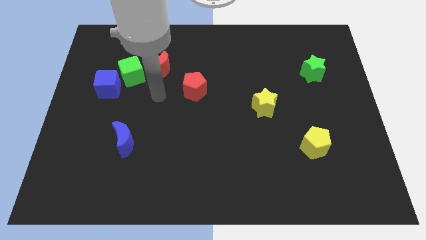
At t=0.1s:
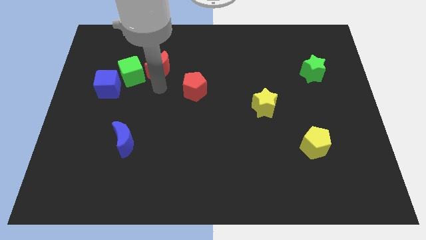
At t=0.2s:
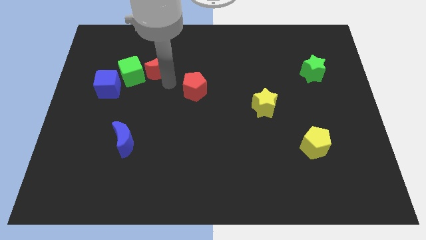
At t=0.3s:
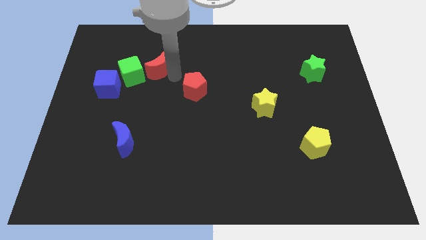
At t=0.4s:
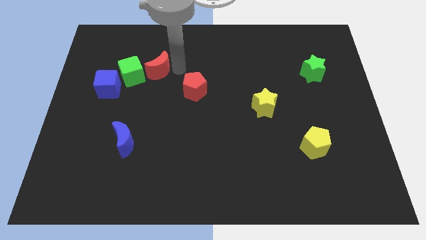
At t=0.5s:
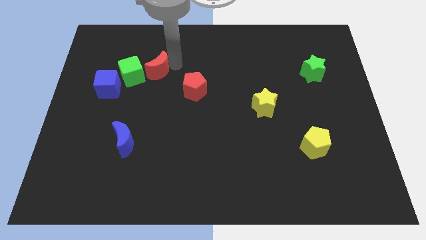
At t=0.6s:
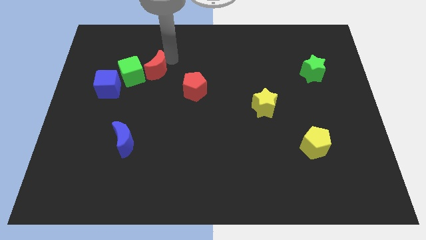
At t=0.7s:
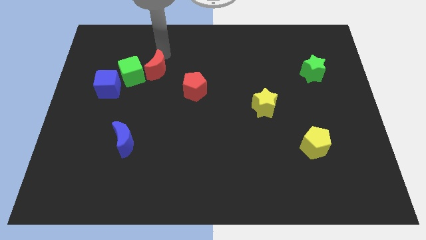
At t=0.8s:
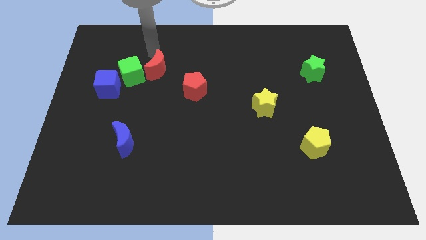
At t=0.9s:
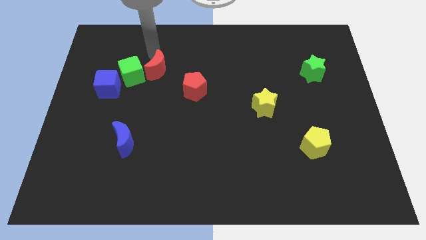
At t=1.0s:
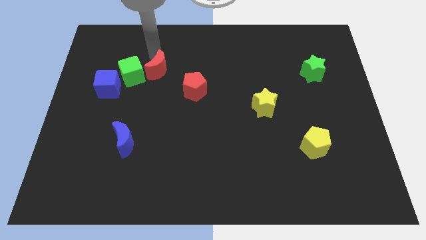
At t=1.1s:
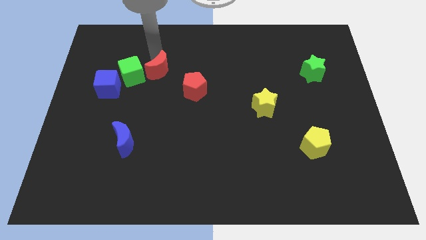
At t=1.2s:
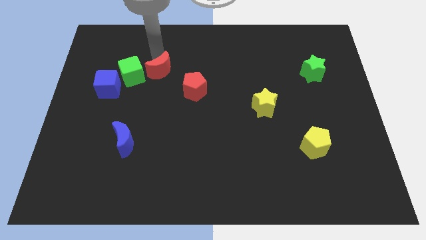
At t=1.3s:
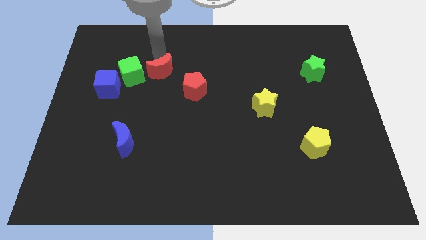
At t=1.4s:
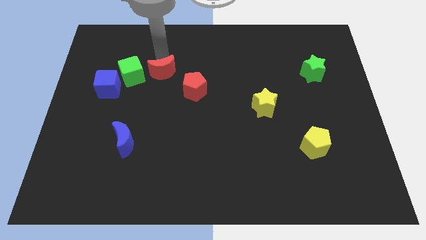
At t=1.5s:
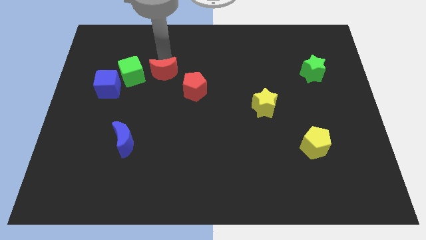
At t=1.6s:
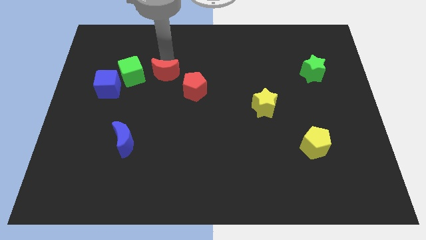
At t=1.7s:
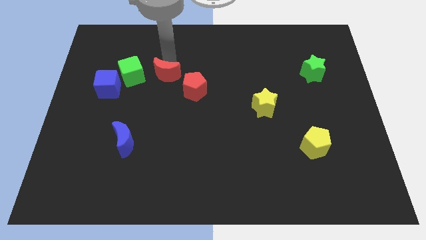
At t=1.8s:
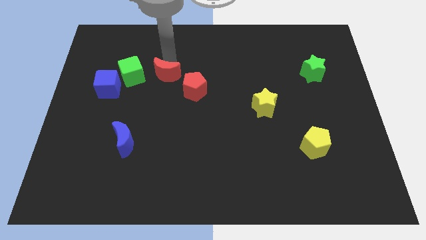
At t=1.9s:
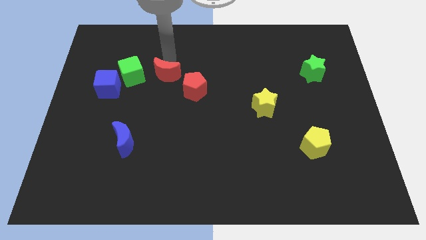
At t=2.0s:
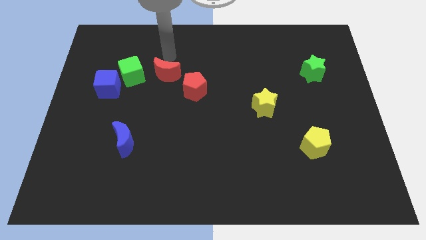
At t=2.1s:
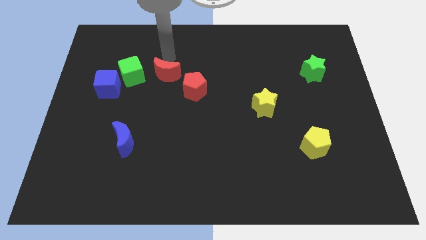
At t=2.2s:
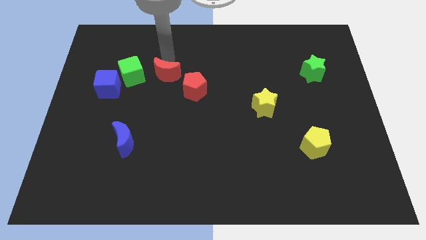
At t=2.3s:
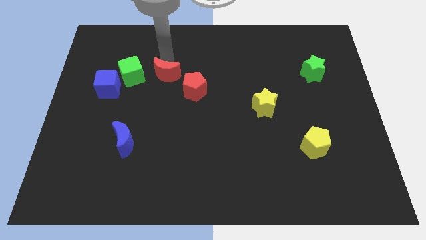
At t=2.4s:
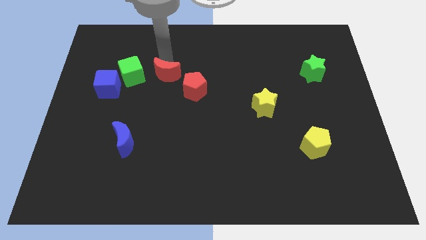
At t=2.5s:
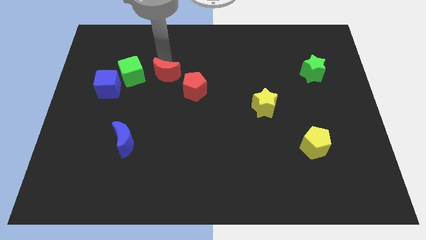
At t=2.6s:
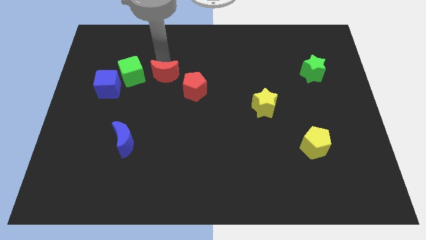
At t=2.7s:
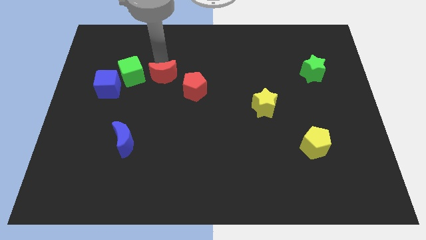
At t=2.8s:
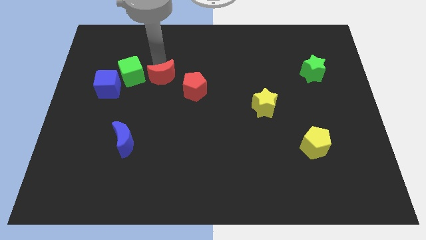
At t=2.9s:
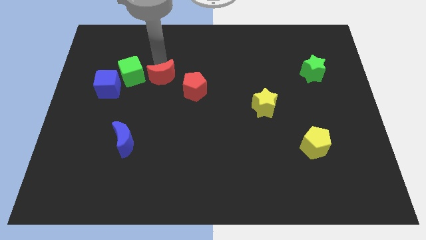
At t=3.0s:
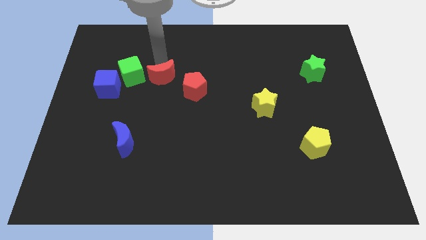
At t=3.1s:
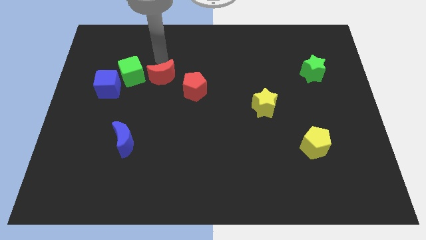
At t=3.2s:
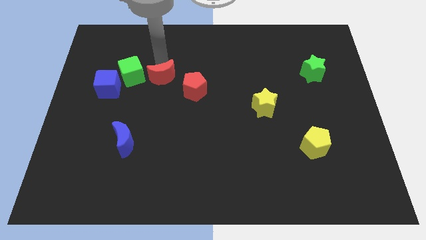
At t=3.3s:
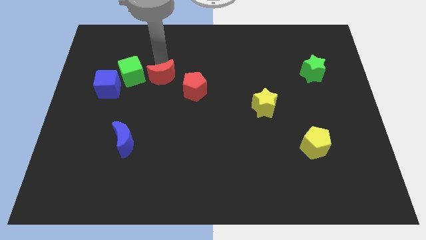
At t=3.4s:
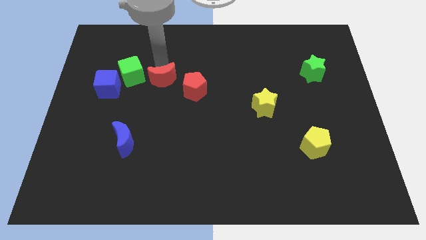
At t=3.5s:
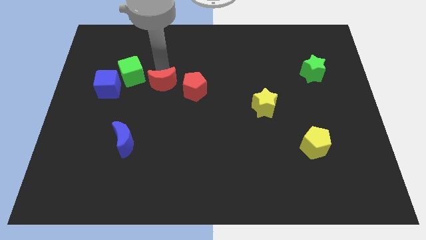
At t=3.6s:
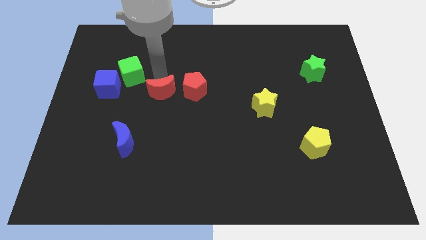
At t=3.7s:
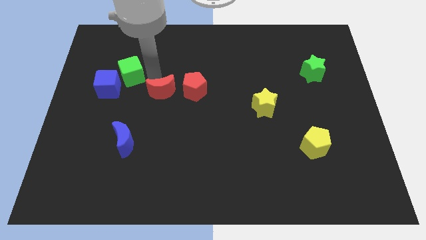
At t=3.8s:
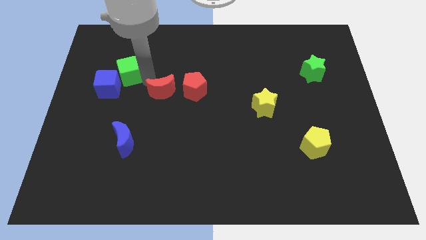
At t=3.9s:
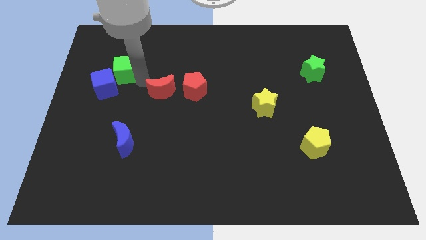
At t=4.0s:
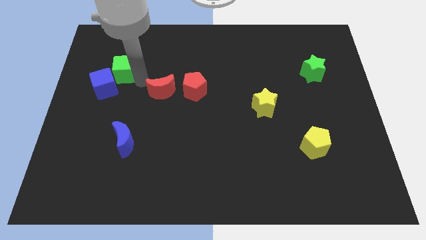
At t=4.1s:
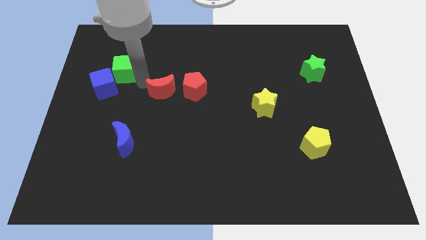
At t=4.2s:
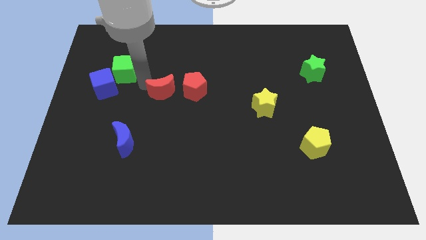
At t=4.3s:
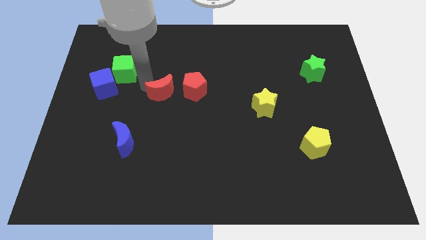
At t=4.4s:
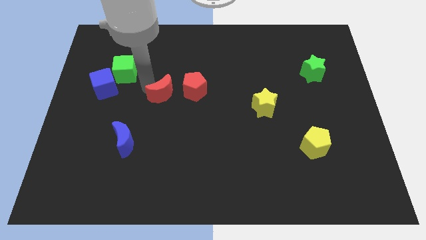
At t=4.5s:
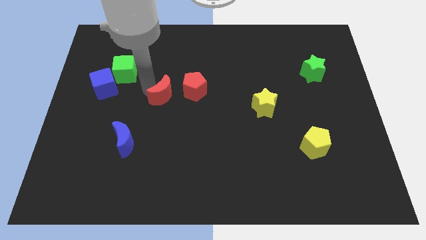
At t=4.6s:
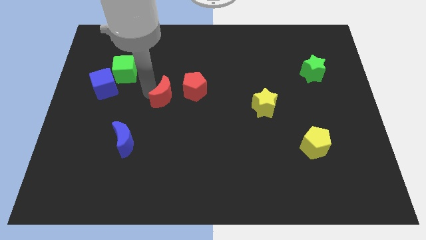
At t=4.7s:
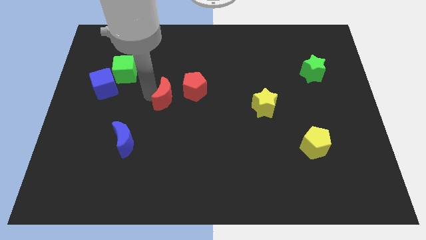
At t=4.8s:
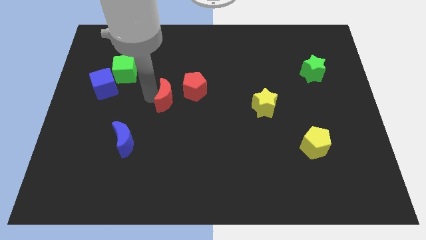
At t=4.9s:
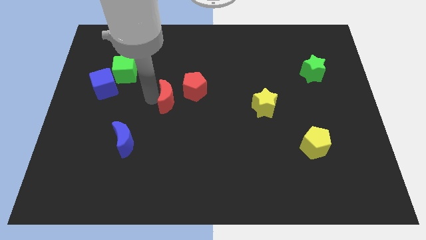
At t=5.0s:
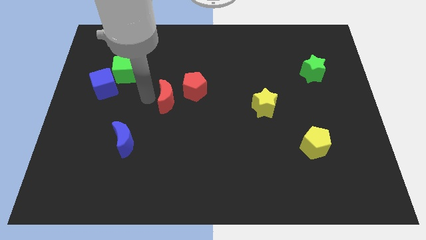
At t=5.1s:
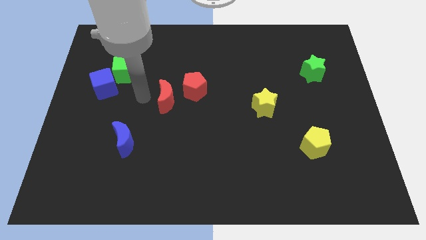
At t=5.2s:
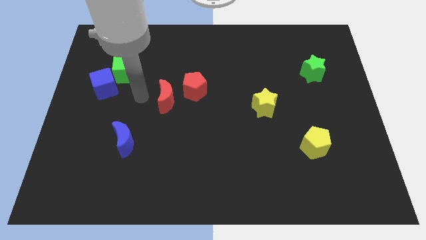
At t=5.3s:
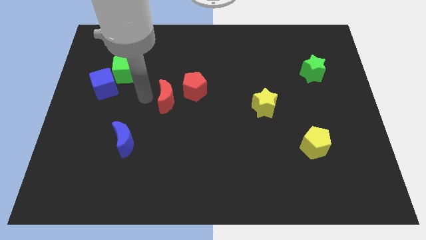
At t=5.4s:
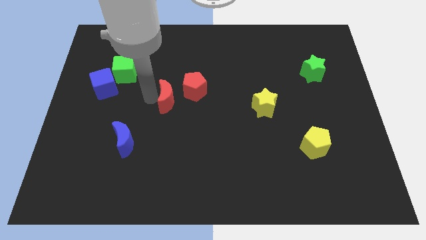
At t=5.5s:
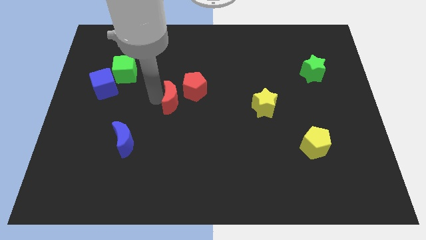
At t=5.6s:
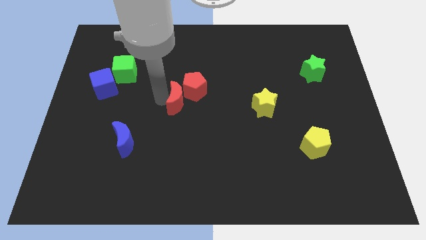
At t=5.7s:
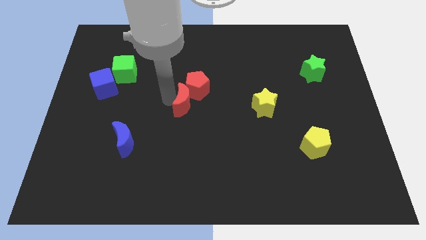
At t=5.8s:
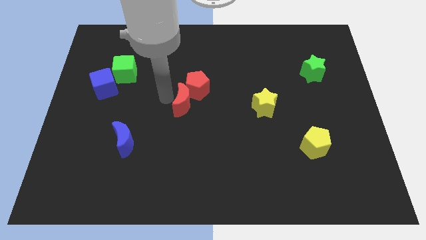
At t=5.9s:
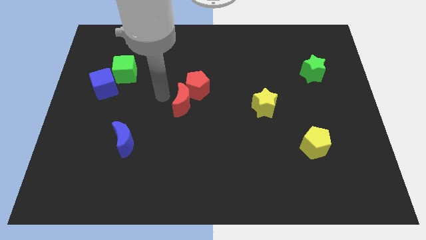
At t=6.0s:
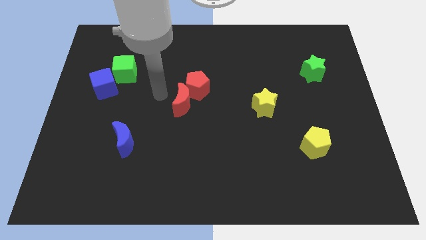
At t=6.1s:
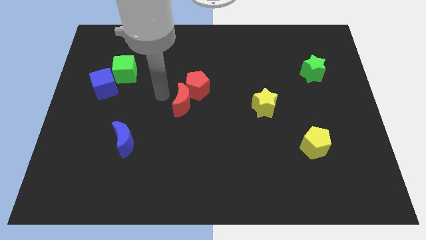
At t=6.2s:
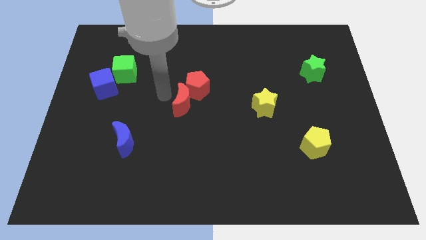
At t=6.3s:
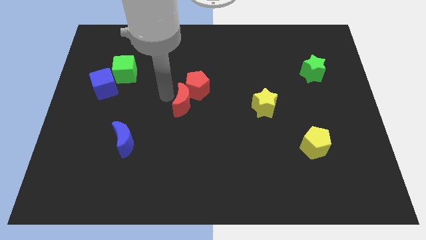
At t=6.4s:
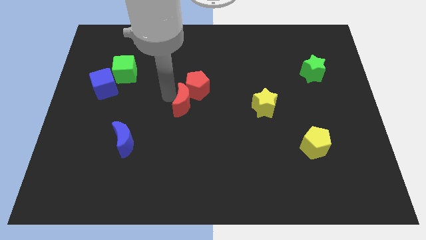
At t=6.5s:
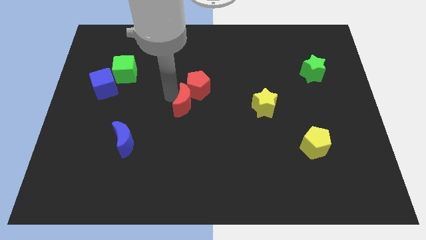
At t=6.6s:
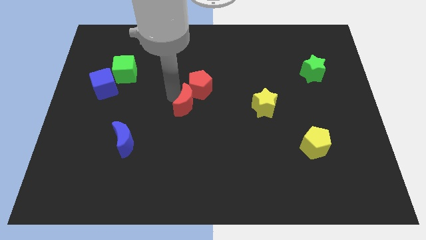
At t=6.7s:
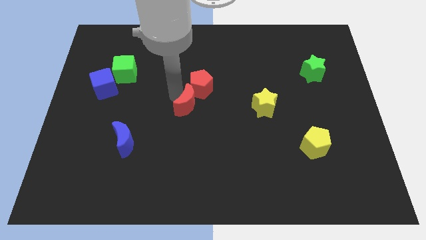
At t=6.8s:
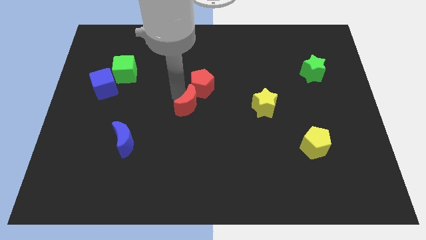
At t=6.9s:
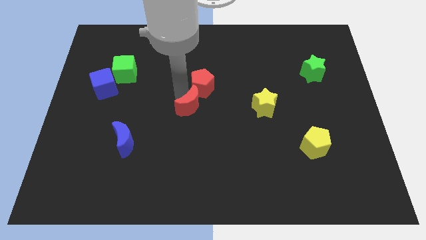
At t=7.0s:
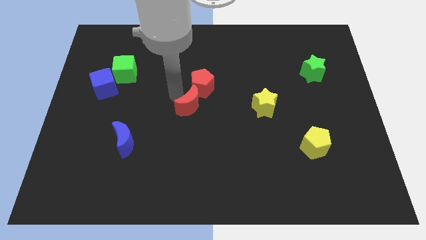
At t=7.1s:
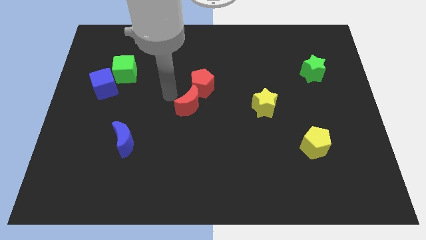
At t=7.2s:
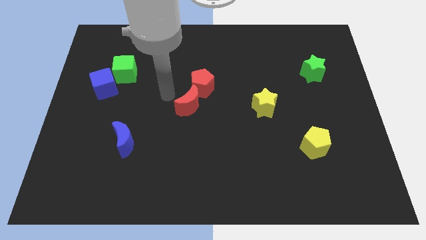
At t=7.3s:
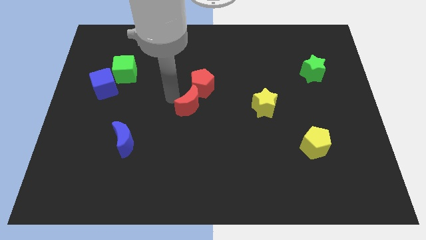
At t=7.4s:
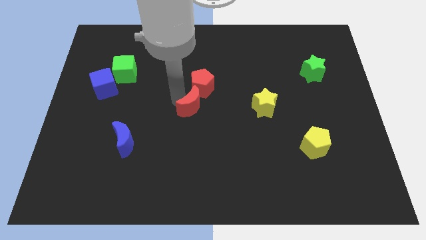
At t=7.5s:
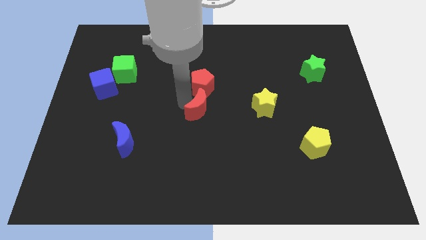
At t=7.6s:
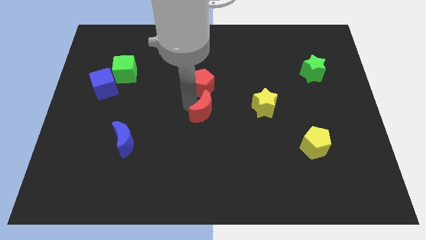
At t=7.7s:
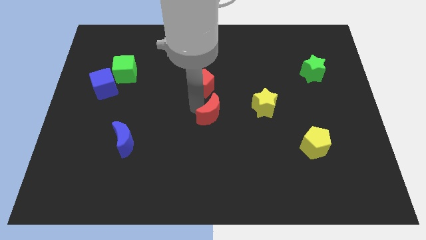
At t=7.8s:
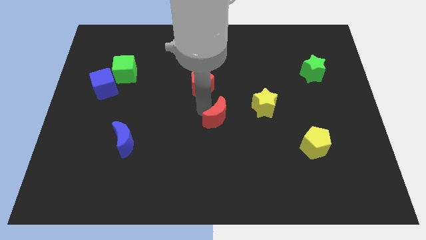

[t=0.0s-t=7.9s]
slide the red moon diagonally downwards and right
